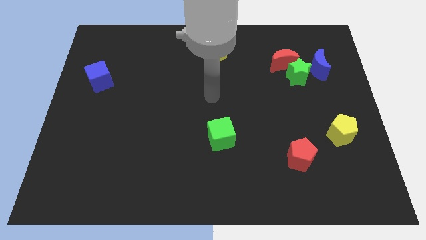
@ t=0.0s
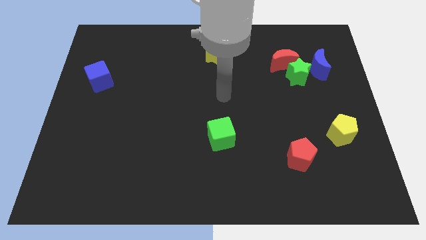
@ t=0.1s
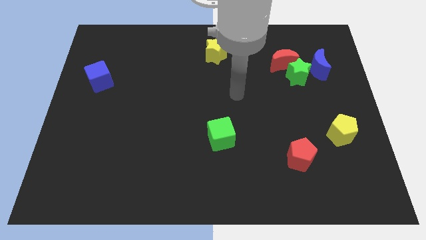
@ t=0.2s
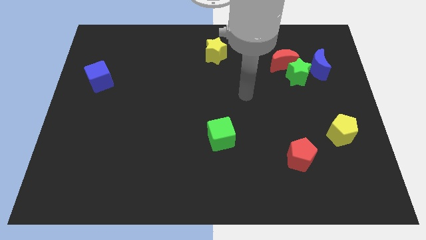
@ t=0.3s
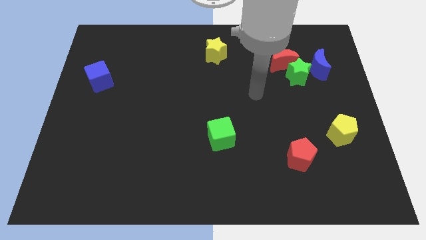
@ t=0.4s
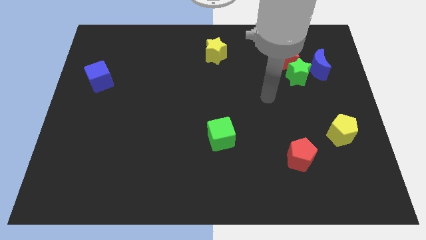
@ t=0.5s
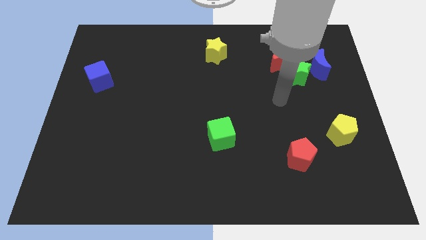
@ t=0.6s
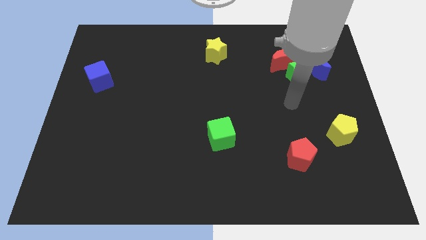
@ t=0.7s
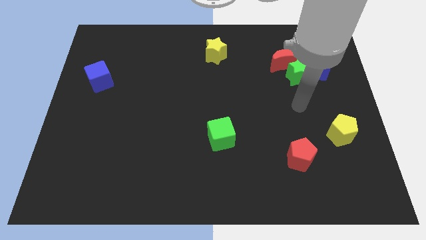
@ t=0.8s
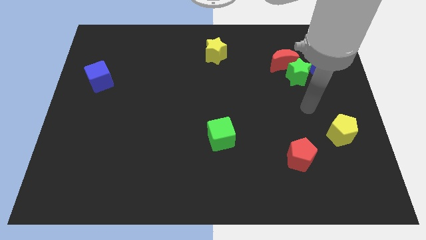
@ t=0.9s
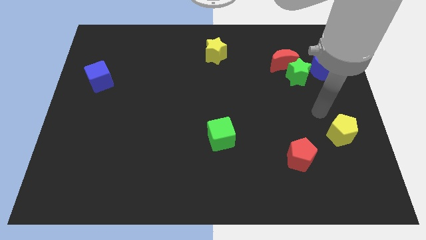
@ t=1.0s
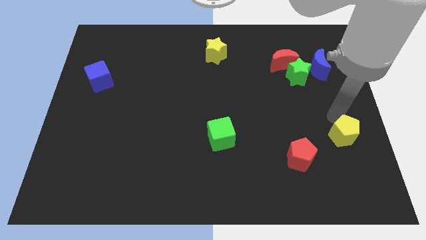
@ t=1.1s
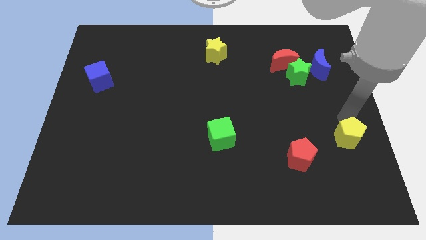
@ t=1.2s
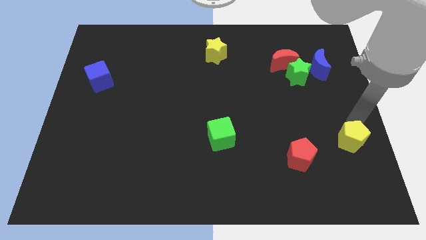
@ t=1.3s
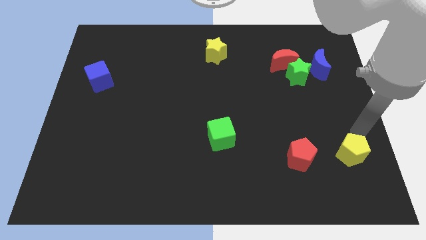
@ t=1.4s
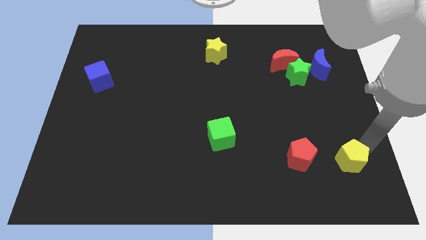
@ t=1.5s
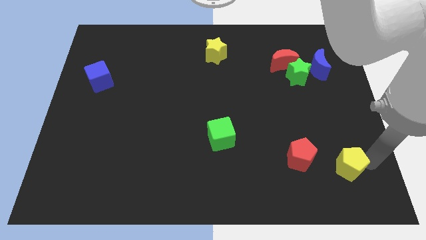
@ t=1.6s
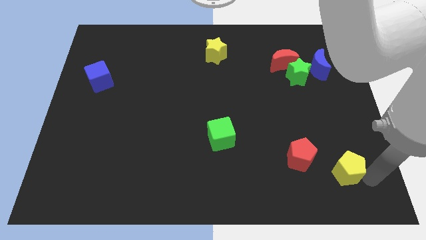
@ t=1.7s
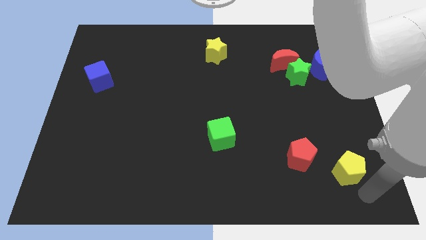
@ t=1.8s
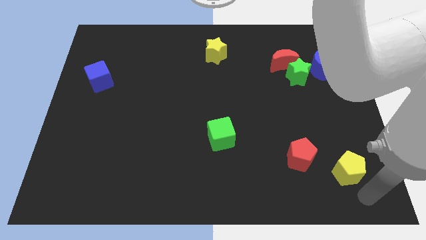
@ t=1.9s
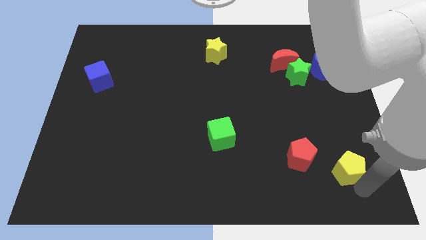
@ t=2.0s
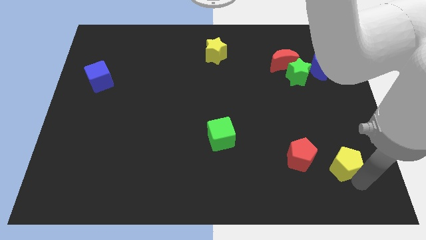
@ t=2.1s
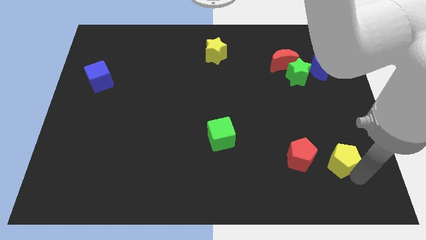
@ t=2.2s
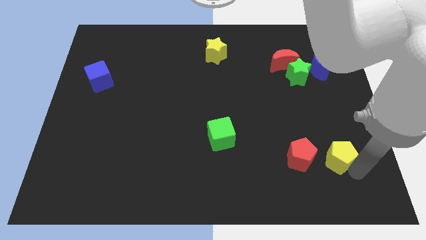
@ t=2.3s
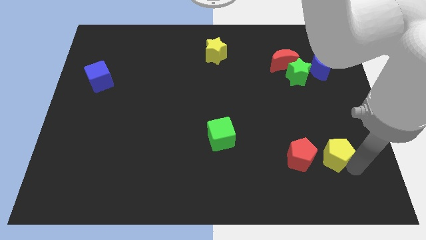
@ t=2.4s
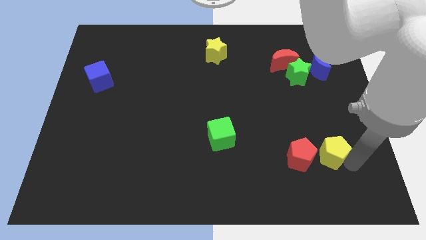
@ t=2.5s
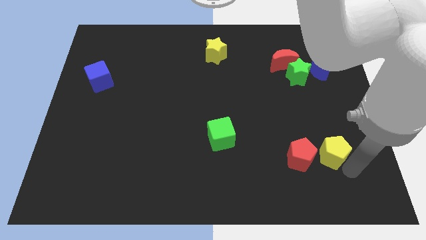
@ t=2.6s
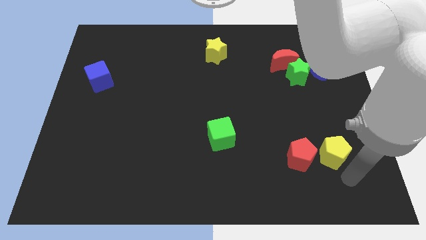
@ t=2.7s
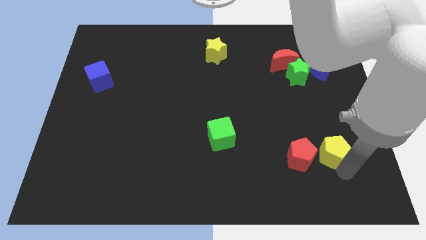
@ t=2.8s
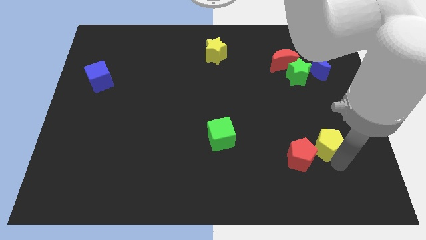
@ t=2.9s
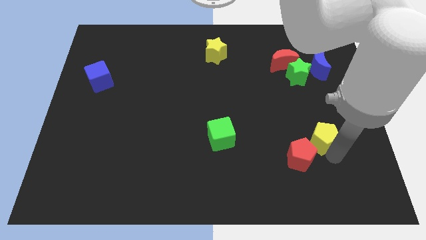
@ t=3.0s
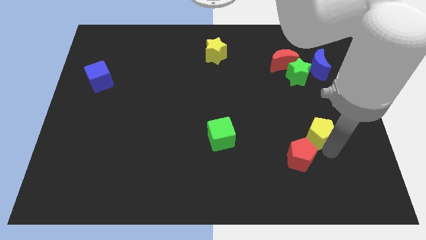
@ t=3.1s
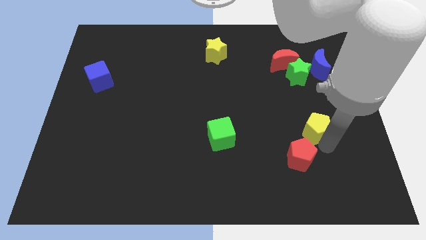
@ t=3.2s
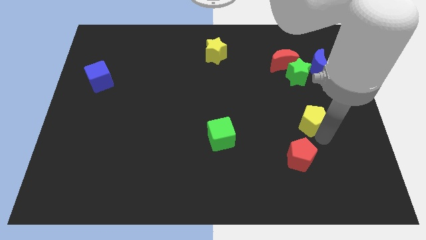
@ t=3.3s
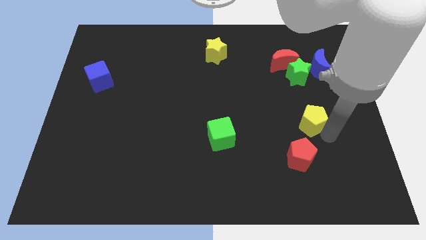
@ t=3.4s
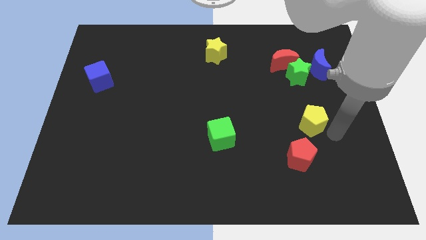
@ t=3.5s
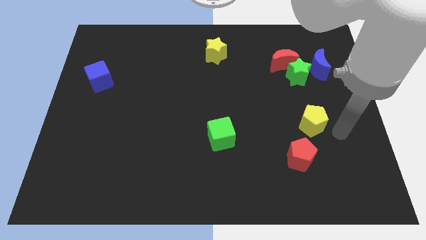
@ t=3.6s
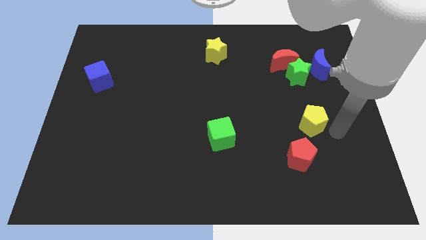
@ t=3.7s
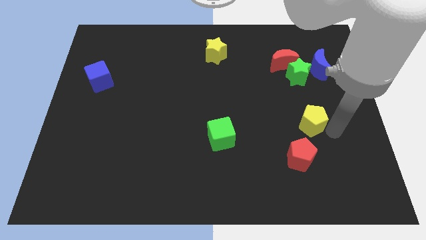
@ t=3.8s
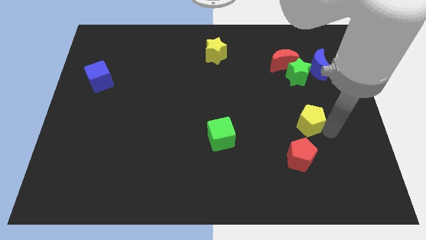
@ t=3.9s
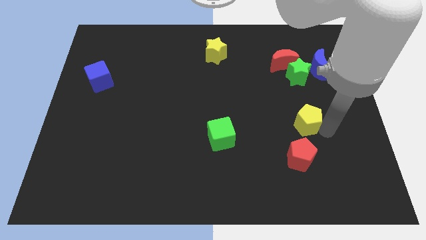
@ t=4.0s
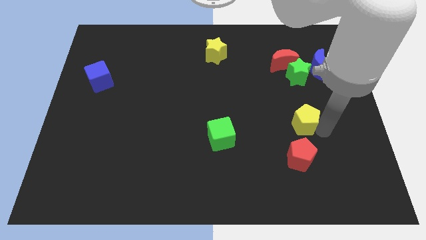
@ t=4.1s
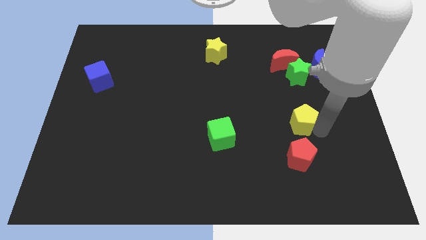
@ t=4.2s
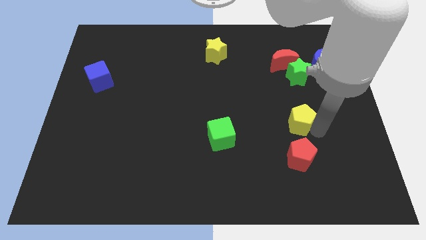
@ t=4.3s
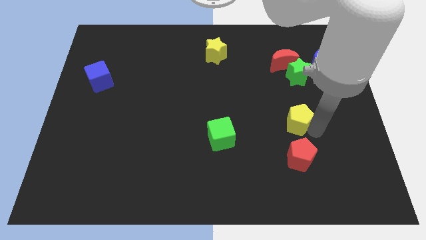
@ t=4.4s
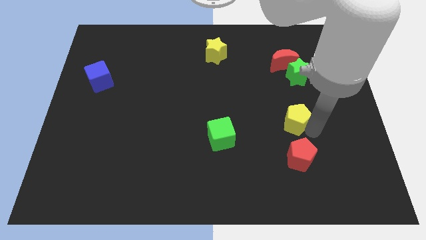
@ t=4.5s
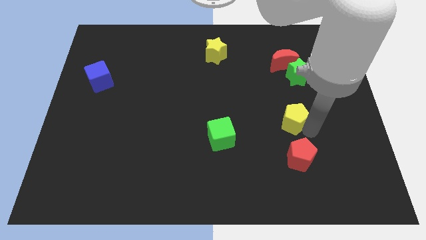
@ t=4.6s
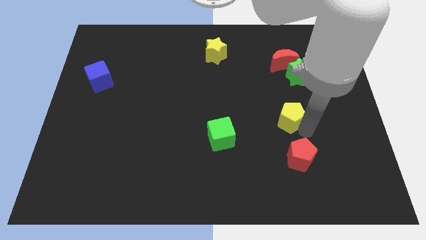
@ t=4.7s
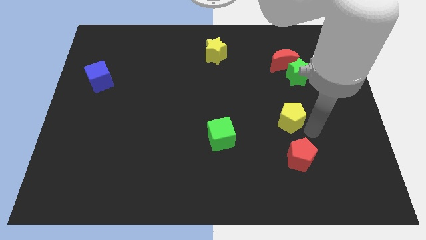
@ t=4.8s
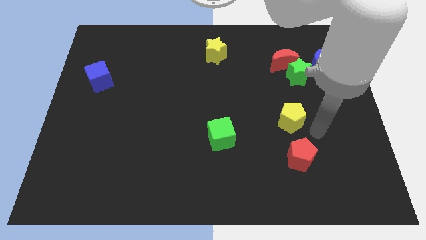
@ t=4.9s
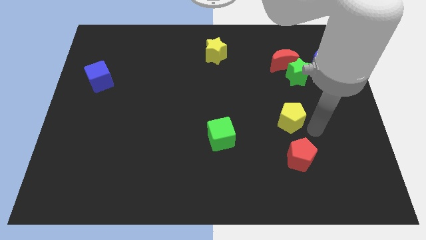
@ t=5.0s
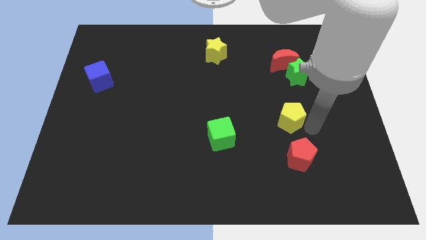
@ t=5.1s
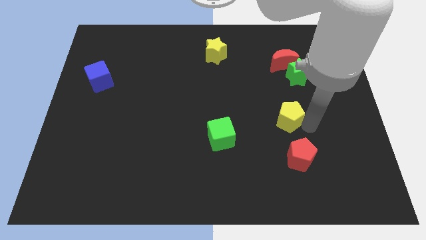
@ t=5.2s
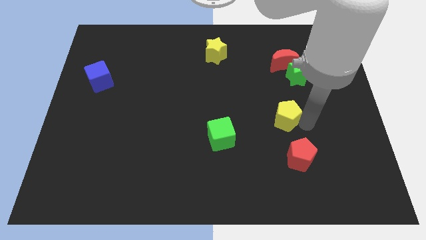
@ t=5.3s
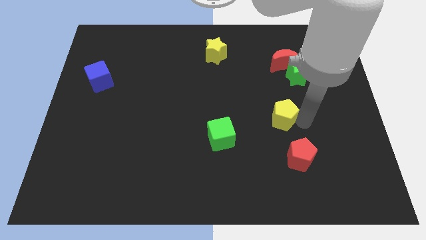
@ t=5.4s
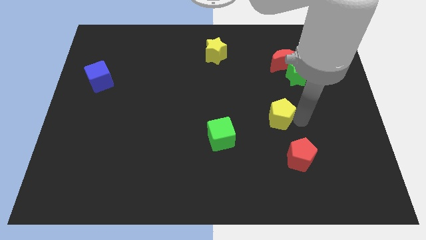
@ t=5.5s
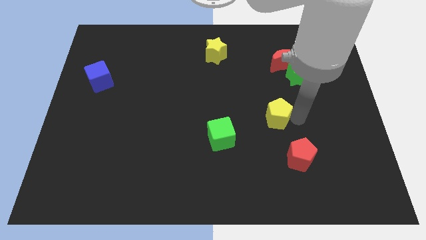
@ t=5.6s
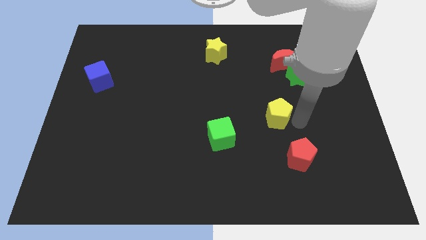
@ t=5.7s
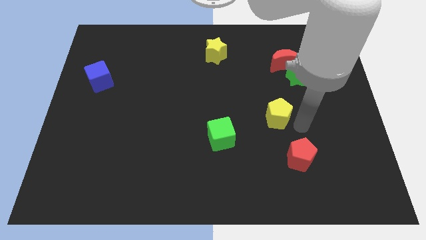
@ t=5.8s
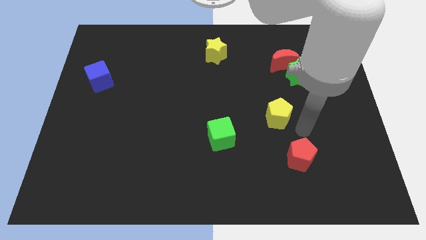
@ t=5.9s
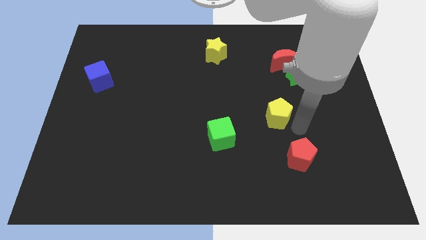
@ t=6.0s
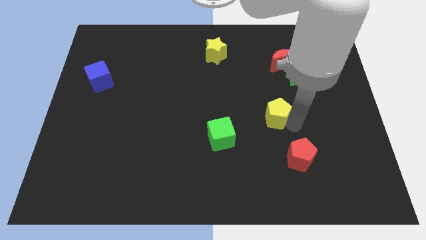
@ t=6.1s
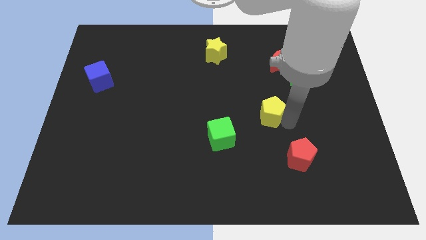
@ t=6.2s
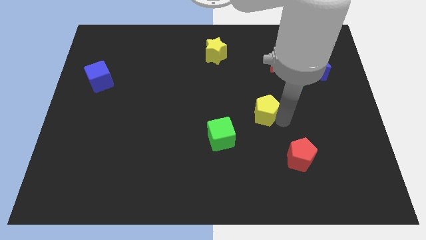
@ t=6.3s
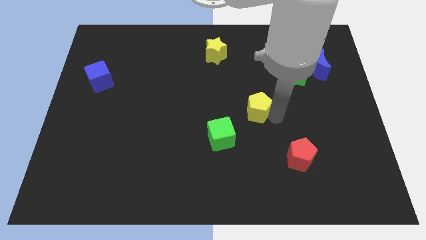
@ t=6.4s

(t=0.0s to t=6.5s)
put the yellow pentagon to the center

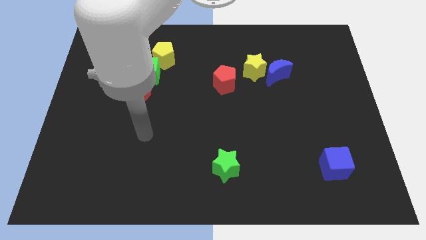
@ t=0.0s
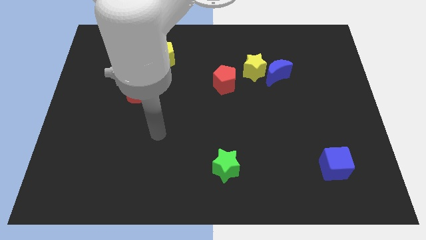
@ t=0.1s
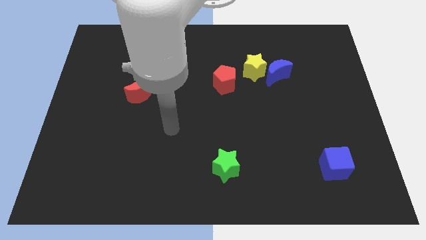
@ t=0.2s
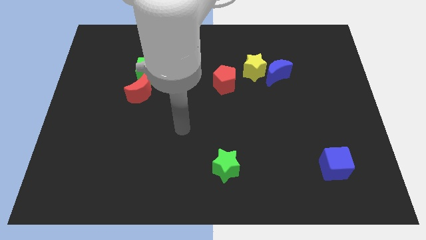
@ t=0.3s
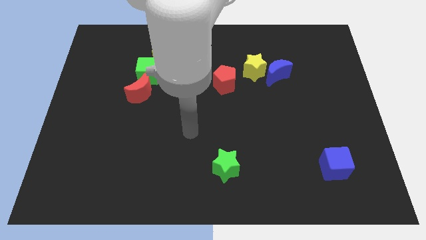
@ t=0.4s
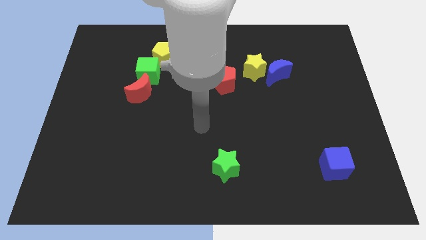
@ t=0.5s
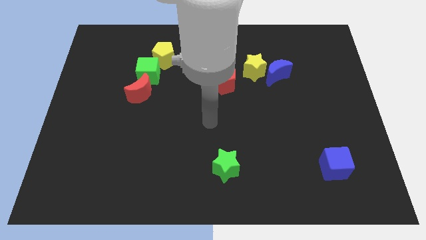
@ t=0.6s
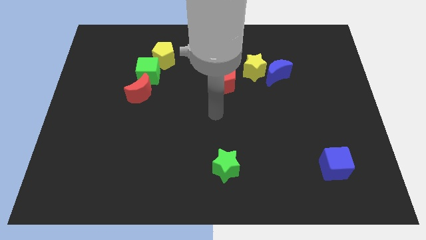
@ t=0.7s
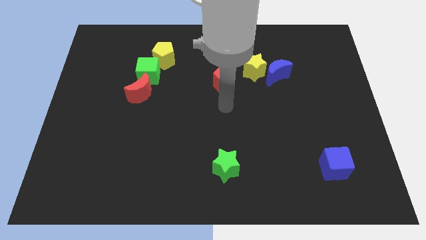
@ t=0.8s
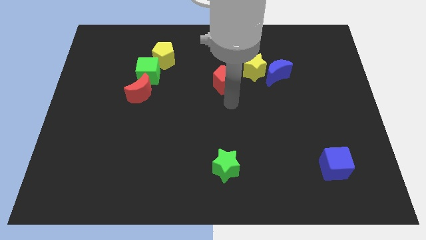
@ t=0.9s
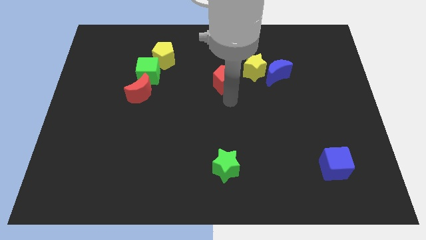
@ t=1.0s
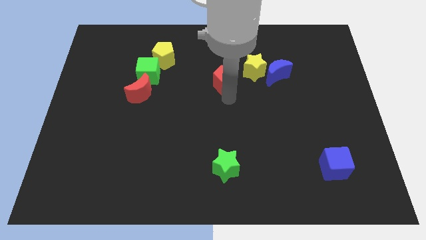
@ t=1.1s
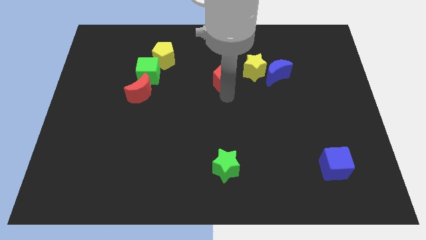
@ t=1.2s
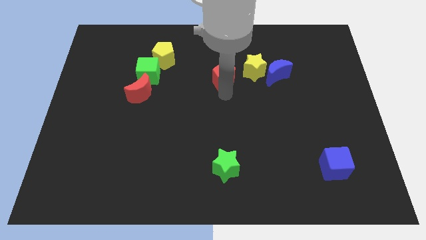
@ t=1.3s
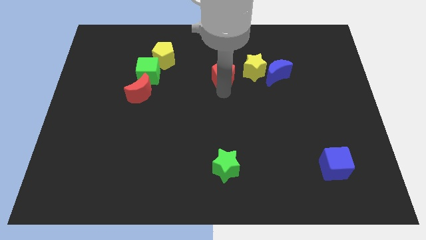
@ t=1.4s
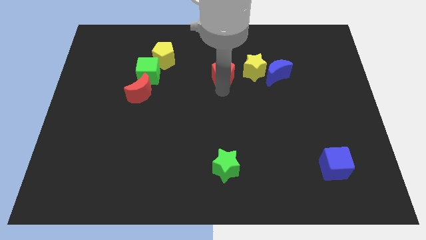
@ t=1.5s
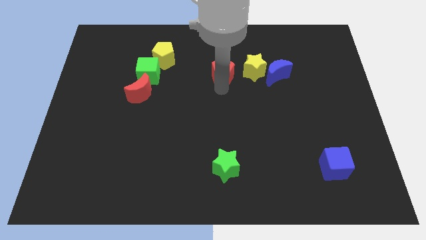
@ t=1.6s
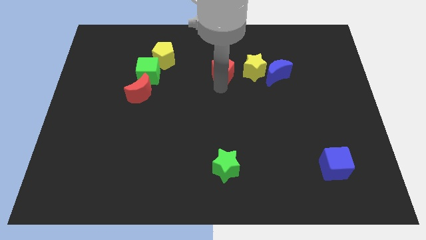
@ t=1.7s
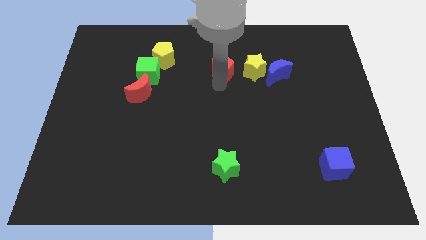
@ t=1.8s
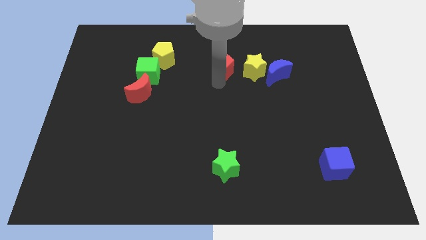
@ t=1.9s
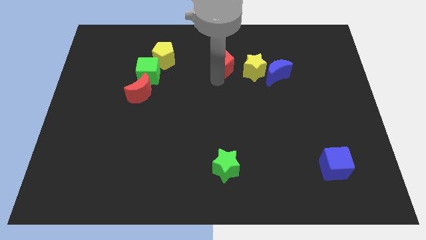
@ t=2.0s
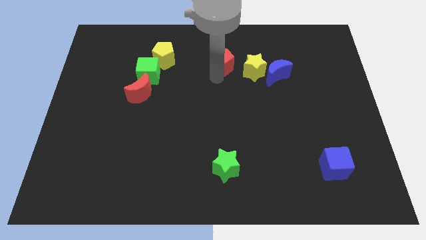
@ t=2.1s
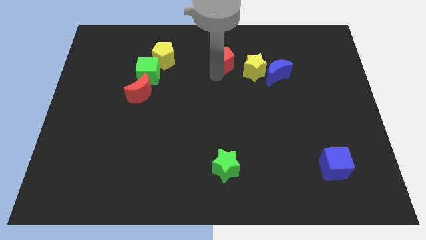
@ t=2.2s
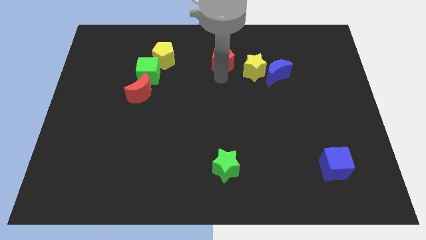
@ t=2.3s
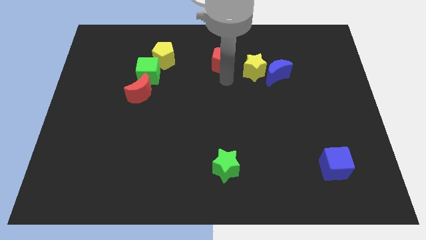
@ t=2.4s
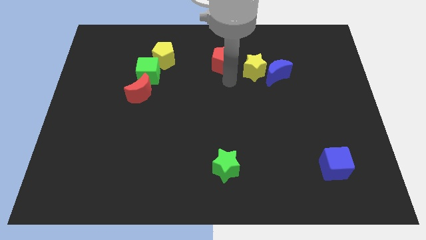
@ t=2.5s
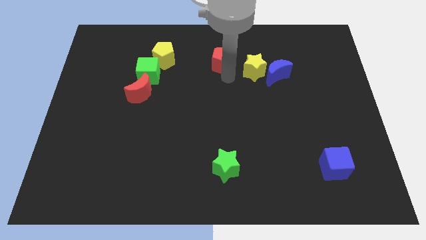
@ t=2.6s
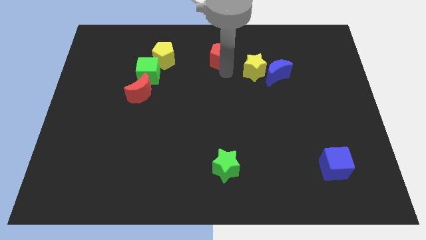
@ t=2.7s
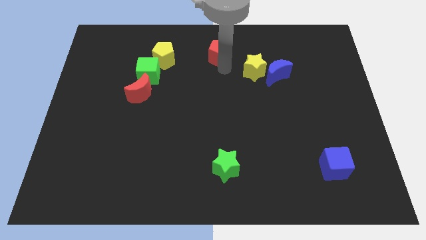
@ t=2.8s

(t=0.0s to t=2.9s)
put the red pentagon to the top
